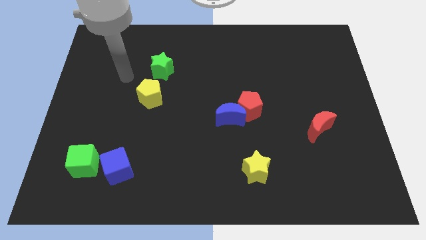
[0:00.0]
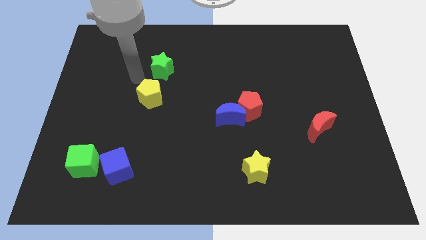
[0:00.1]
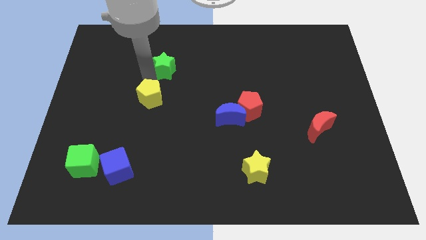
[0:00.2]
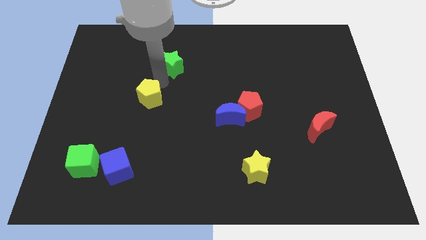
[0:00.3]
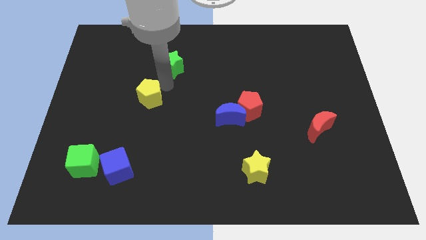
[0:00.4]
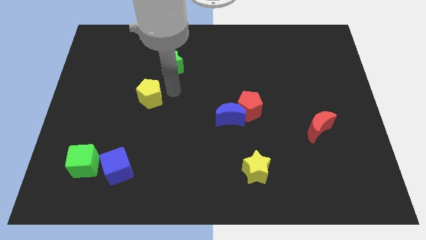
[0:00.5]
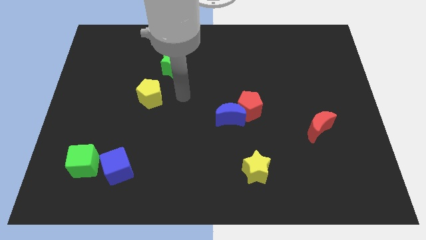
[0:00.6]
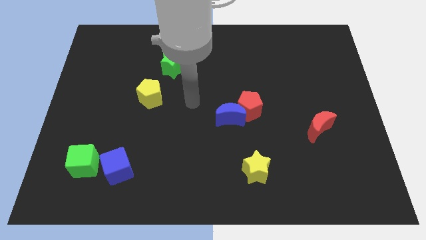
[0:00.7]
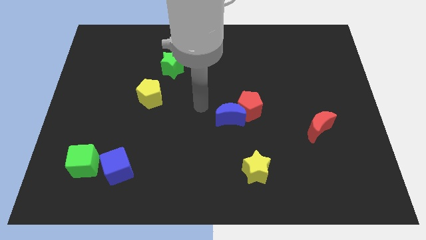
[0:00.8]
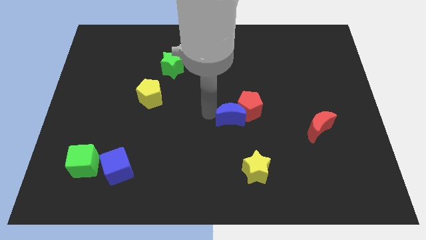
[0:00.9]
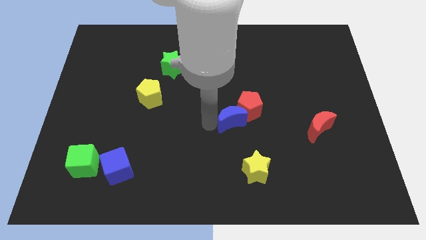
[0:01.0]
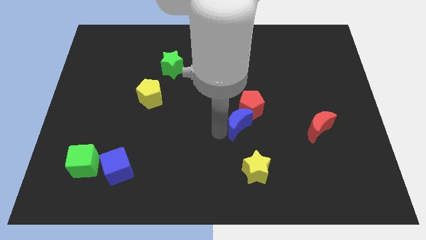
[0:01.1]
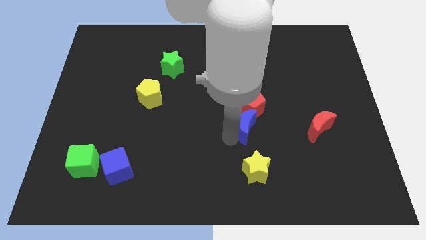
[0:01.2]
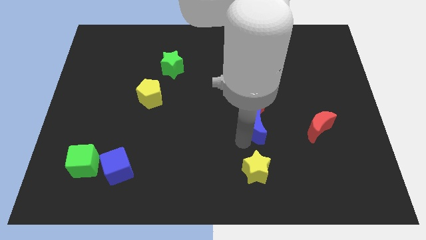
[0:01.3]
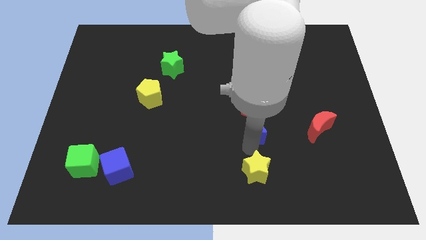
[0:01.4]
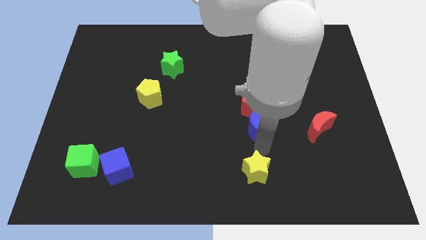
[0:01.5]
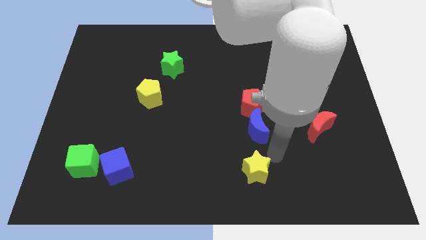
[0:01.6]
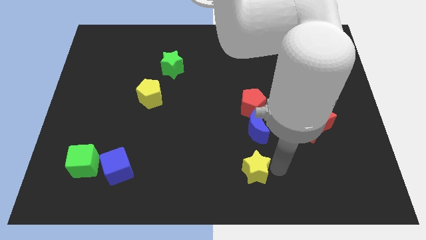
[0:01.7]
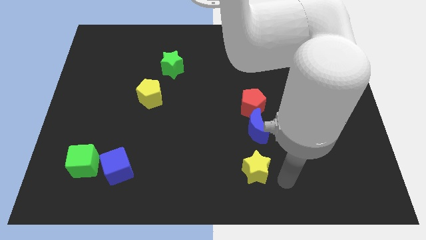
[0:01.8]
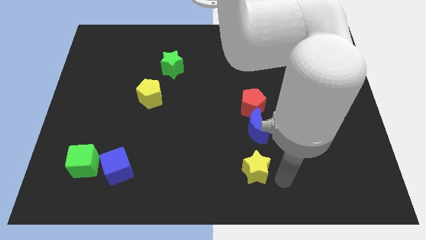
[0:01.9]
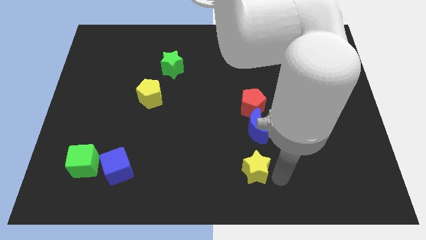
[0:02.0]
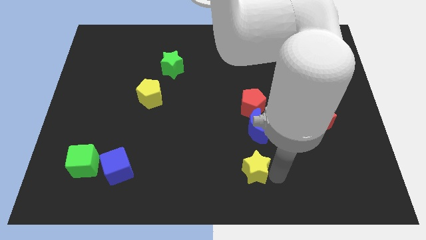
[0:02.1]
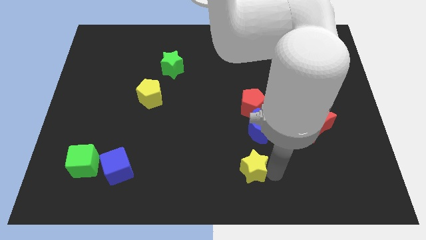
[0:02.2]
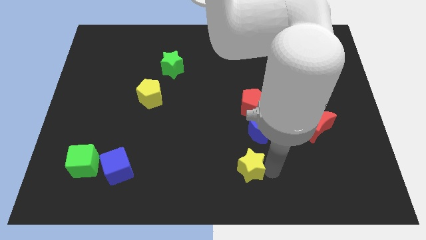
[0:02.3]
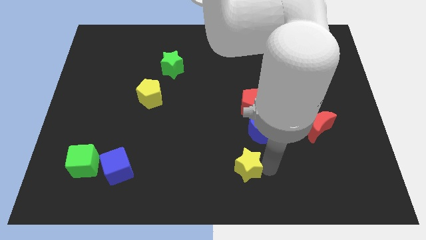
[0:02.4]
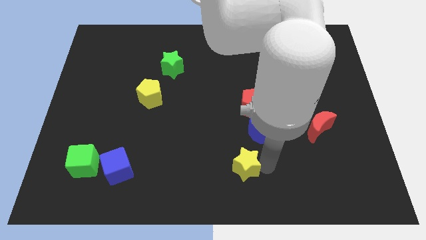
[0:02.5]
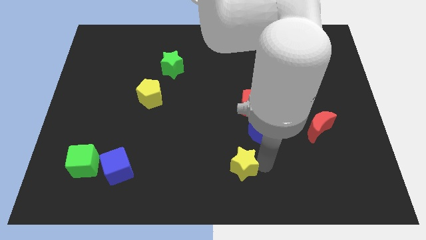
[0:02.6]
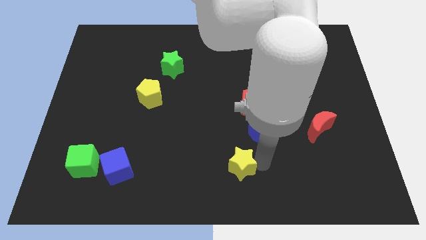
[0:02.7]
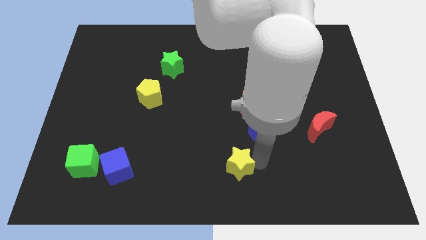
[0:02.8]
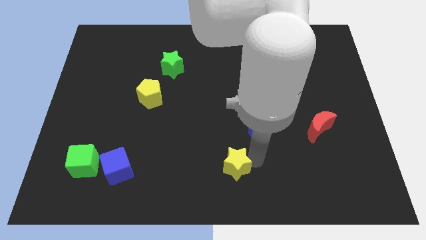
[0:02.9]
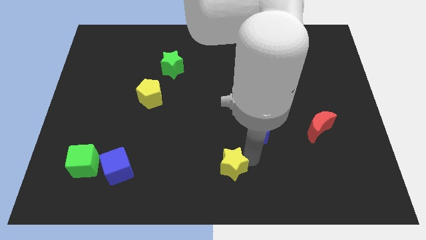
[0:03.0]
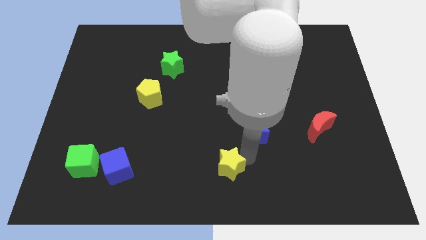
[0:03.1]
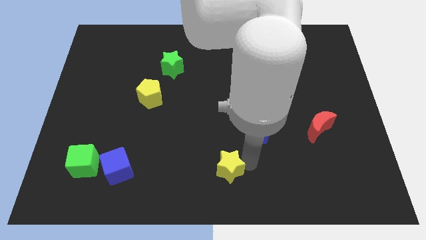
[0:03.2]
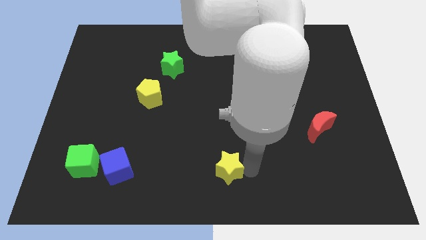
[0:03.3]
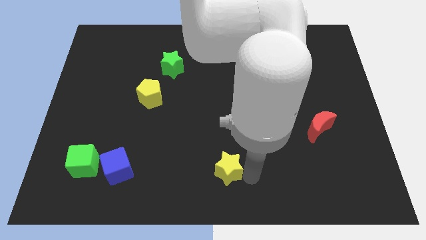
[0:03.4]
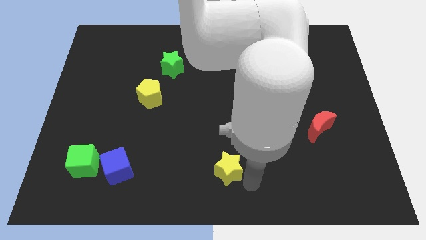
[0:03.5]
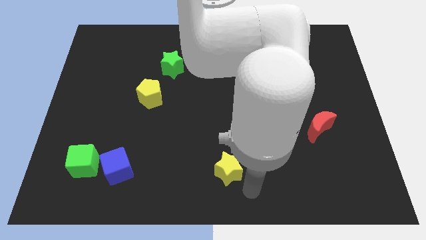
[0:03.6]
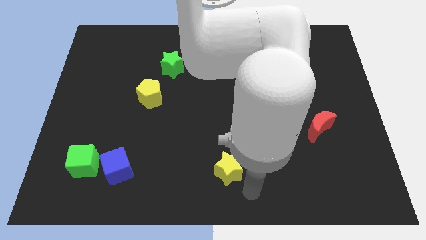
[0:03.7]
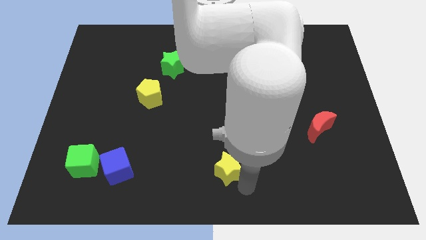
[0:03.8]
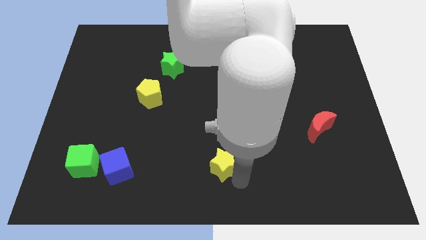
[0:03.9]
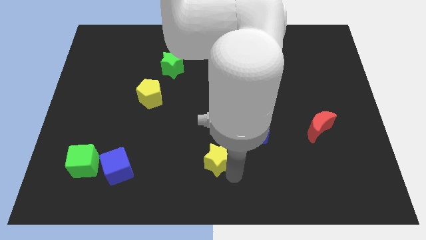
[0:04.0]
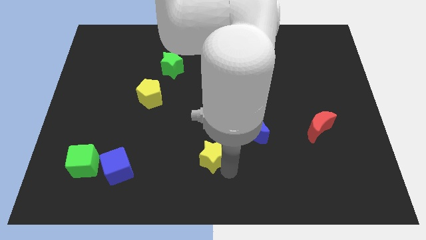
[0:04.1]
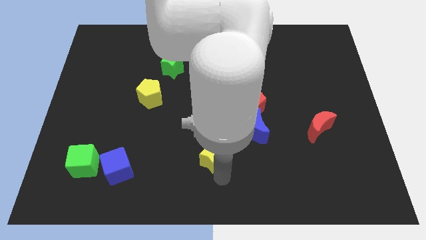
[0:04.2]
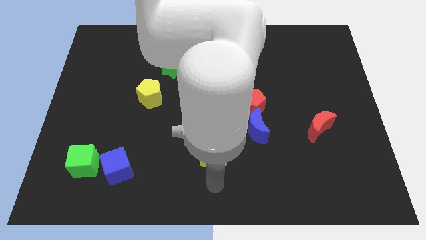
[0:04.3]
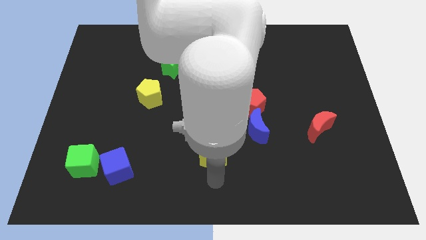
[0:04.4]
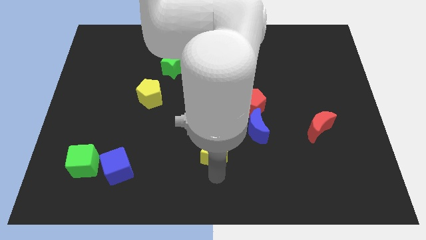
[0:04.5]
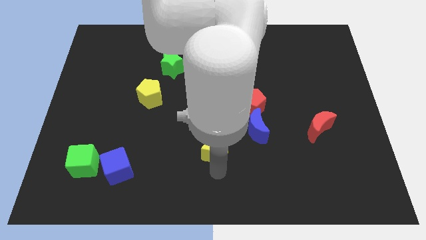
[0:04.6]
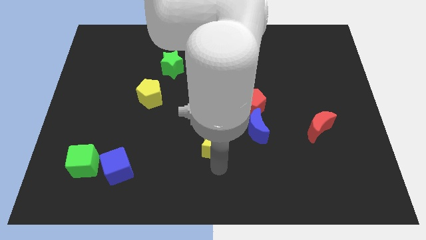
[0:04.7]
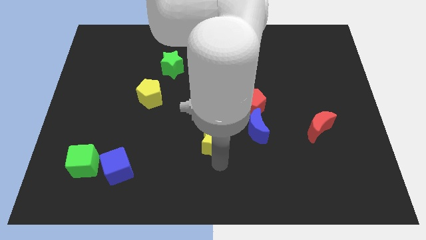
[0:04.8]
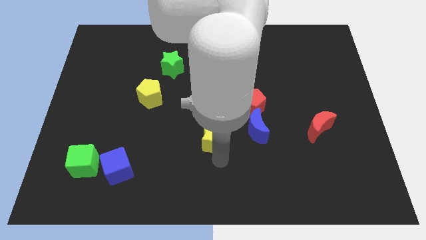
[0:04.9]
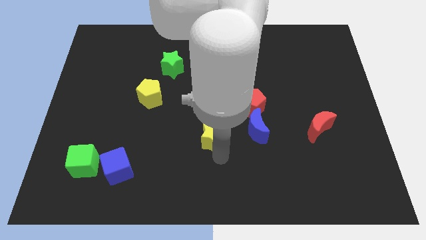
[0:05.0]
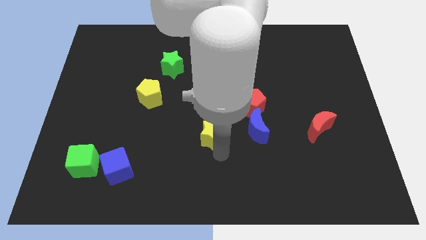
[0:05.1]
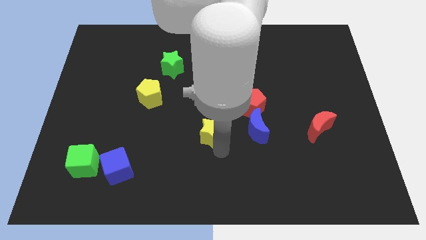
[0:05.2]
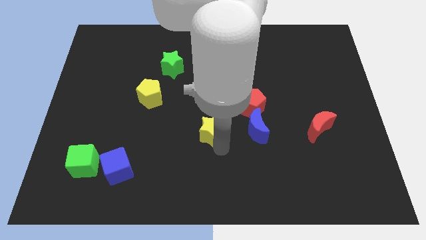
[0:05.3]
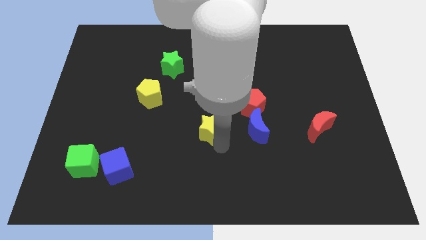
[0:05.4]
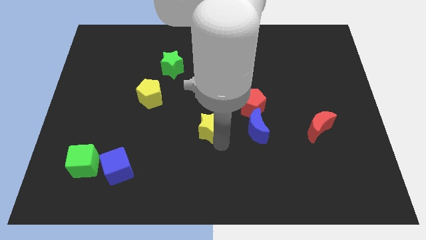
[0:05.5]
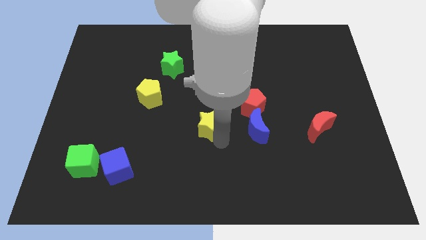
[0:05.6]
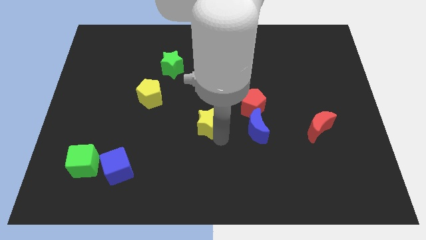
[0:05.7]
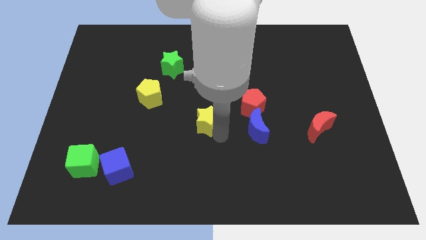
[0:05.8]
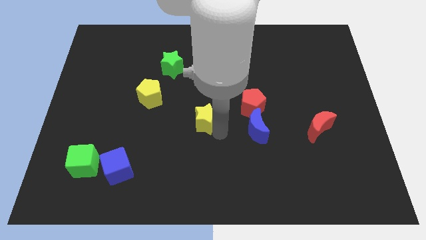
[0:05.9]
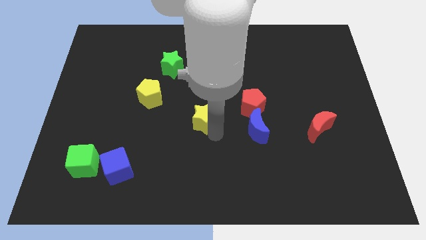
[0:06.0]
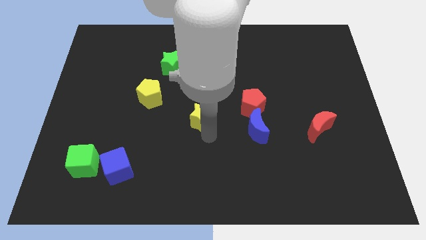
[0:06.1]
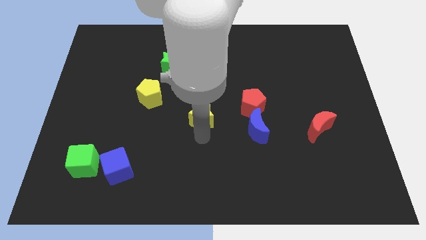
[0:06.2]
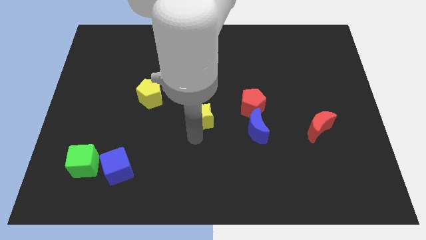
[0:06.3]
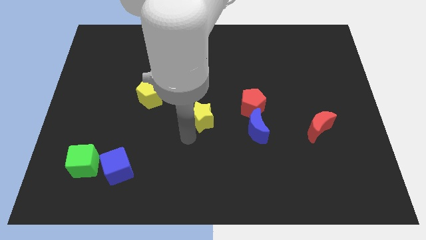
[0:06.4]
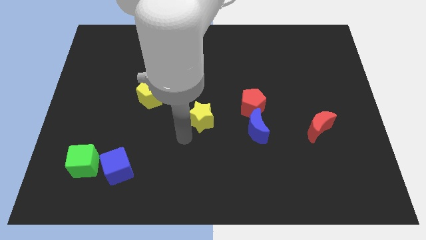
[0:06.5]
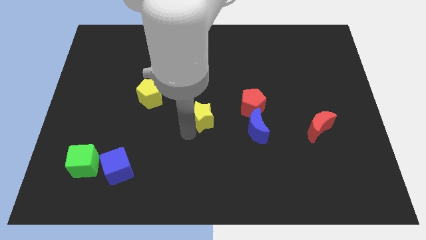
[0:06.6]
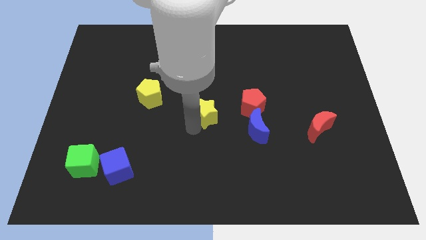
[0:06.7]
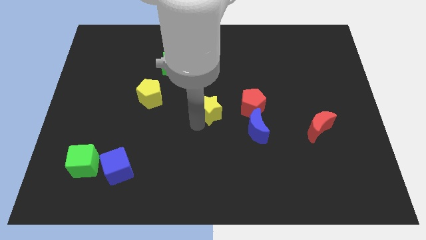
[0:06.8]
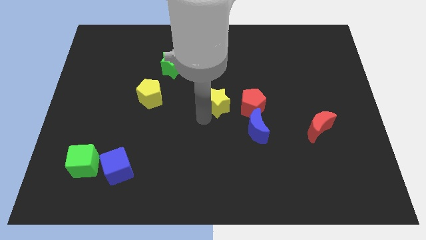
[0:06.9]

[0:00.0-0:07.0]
move the yellow star diagonally up and to the left of the red pentagon
